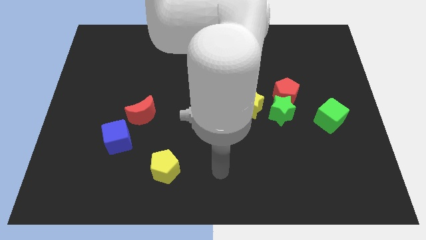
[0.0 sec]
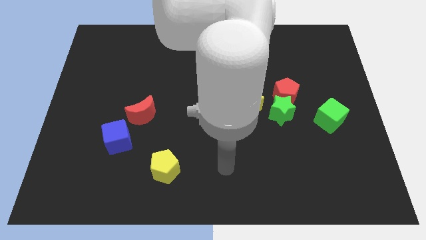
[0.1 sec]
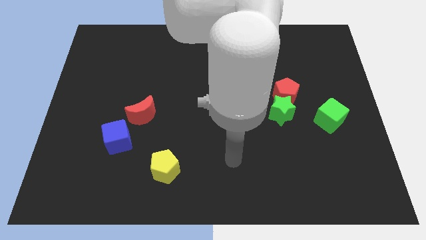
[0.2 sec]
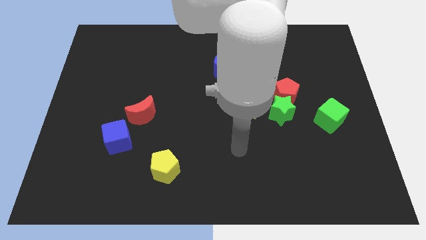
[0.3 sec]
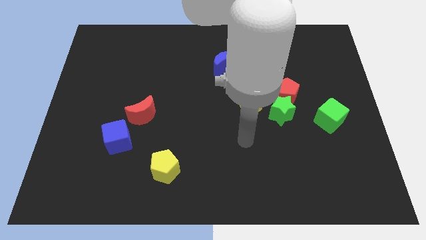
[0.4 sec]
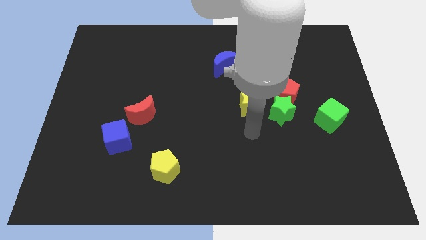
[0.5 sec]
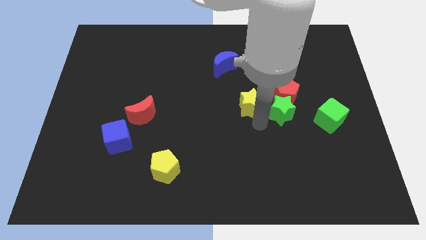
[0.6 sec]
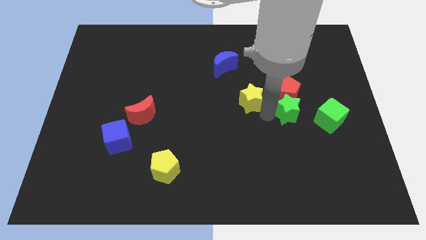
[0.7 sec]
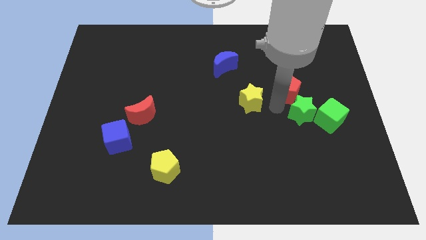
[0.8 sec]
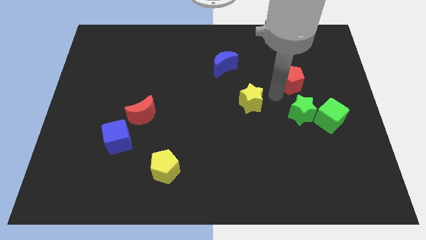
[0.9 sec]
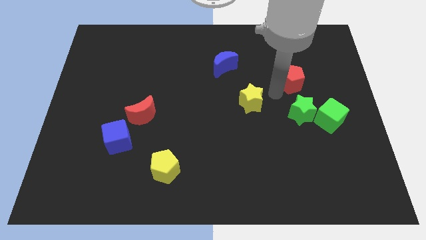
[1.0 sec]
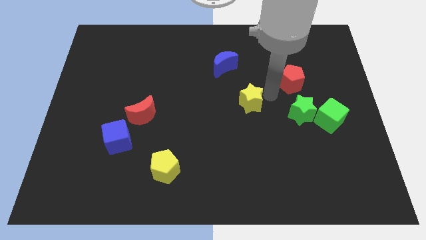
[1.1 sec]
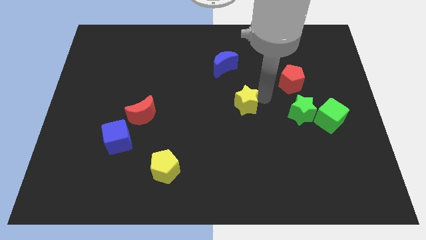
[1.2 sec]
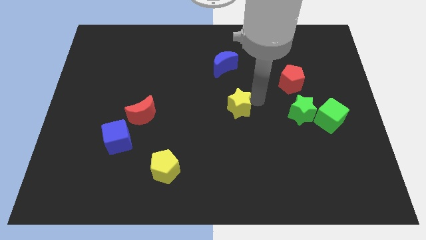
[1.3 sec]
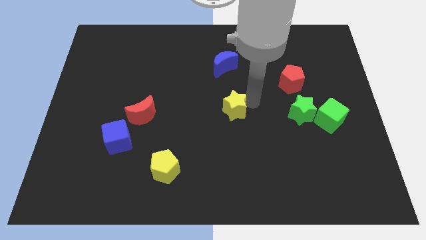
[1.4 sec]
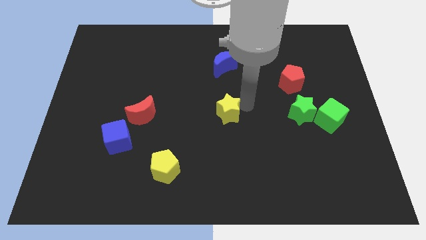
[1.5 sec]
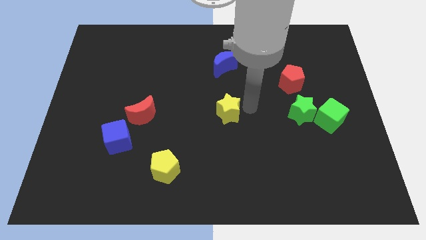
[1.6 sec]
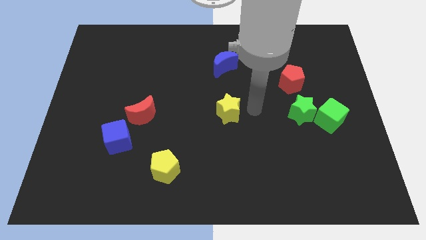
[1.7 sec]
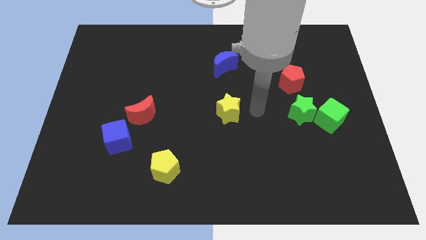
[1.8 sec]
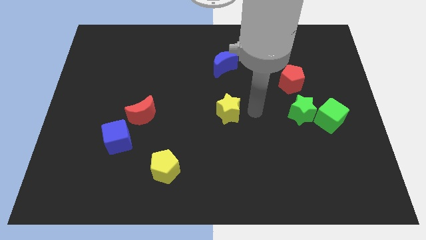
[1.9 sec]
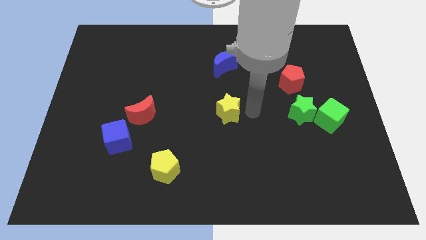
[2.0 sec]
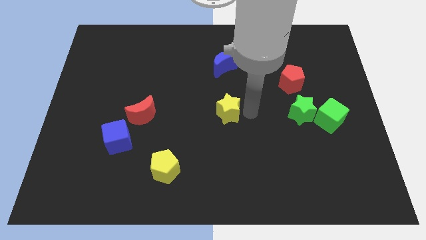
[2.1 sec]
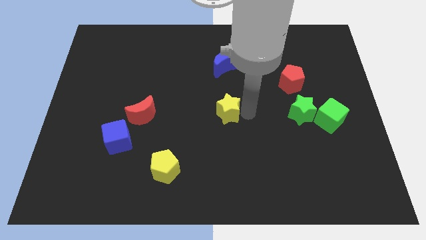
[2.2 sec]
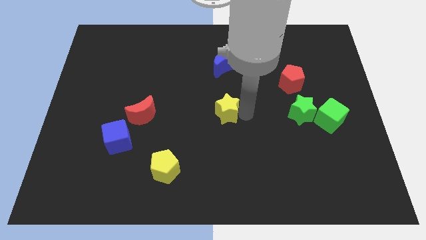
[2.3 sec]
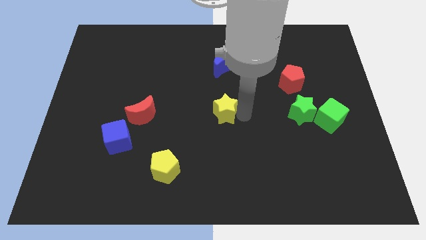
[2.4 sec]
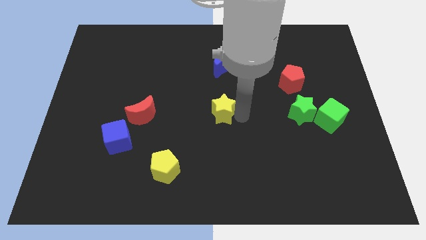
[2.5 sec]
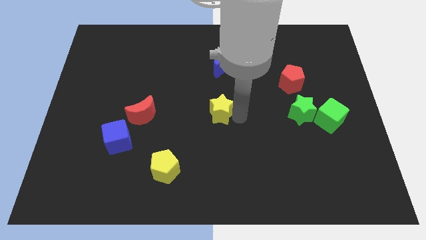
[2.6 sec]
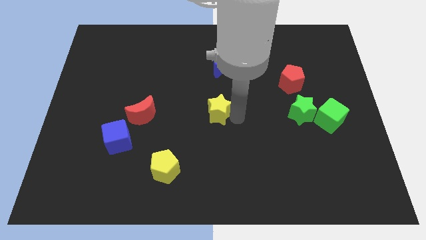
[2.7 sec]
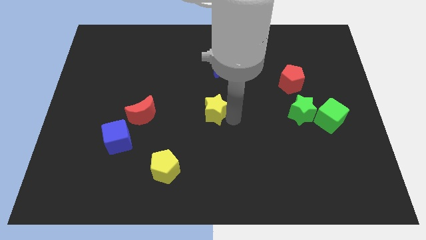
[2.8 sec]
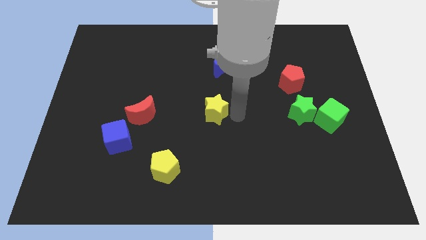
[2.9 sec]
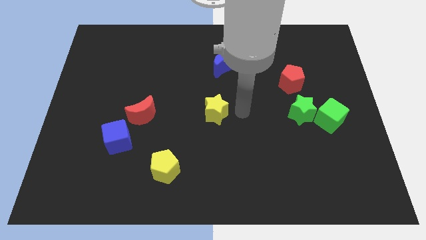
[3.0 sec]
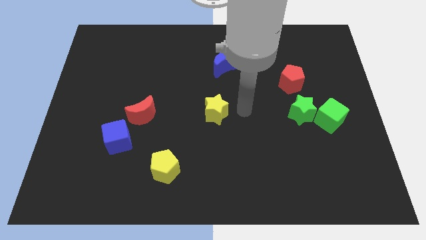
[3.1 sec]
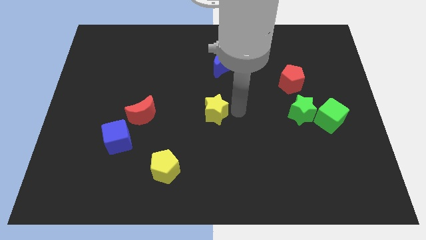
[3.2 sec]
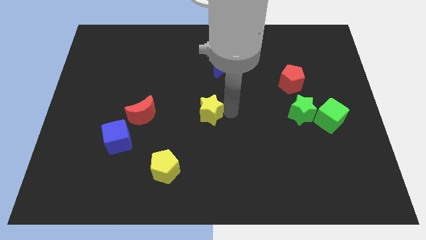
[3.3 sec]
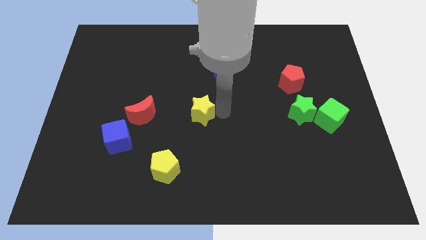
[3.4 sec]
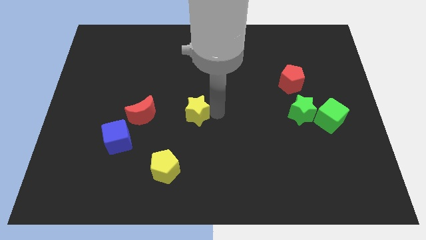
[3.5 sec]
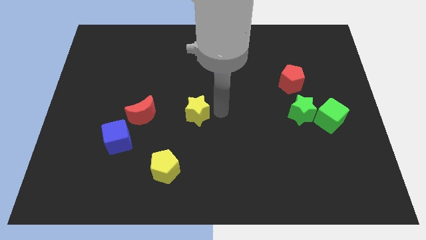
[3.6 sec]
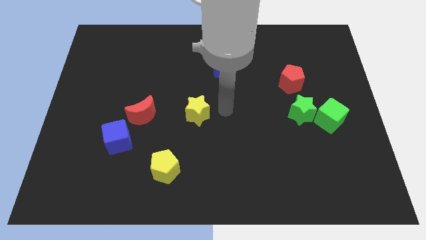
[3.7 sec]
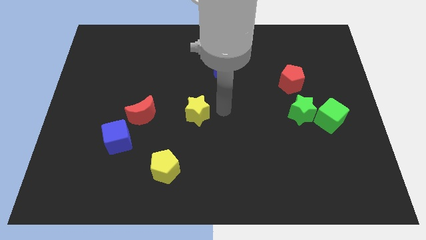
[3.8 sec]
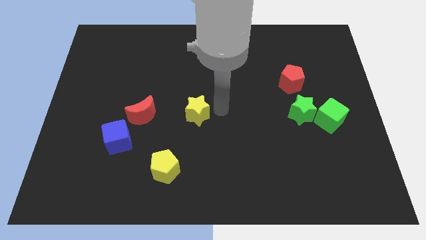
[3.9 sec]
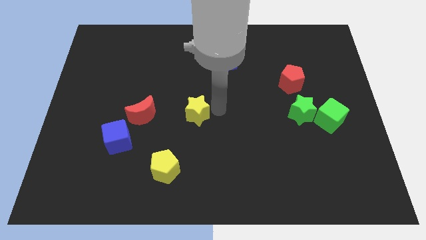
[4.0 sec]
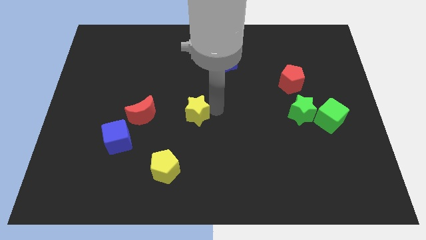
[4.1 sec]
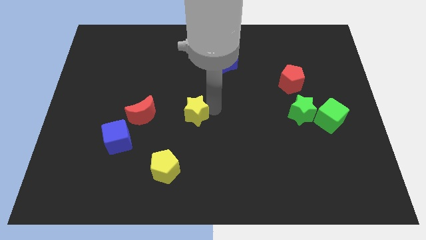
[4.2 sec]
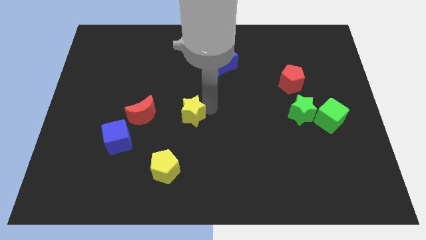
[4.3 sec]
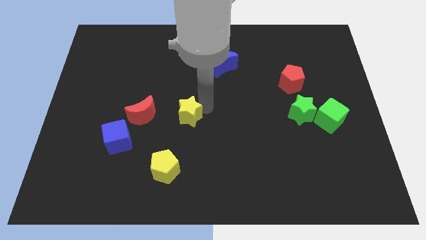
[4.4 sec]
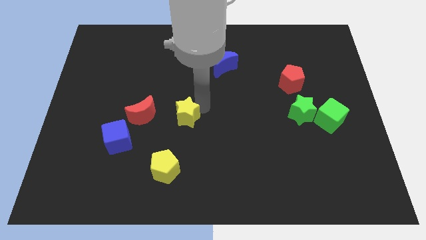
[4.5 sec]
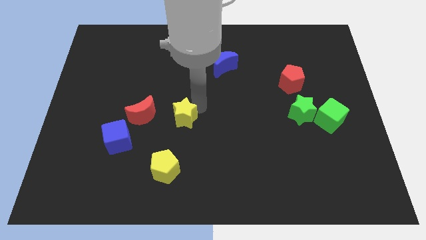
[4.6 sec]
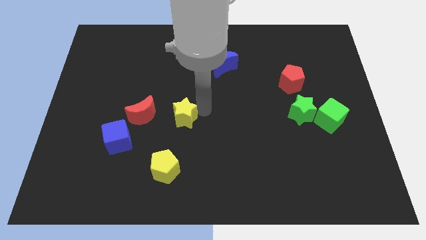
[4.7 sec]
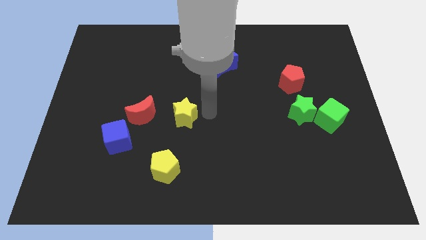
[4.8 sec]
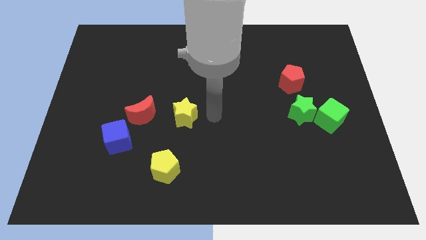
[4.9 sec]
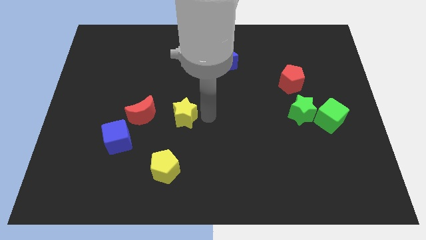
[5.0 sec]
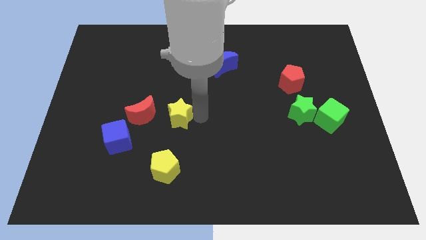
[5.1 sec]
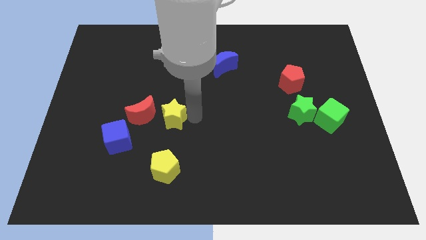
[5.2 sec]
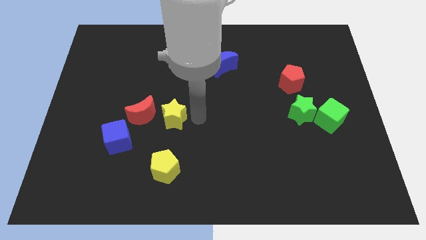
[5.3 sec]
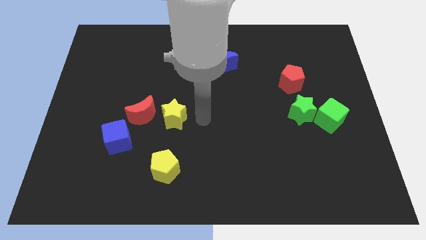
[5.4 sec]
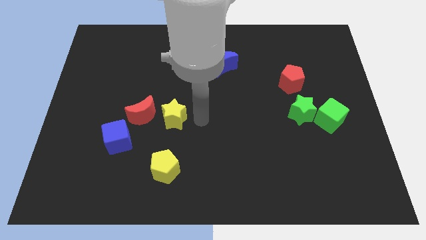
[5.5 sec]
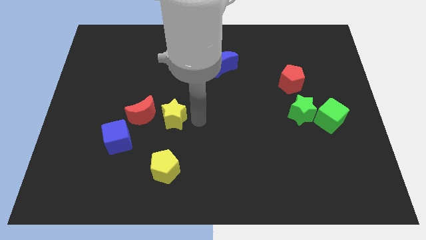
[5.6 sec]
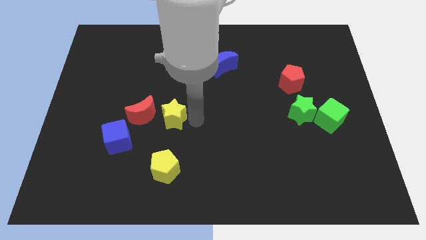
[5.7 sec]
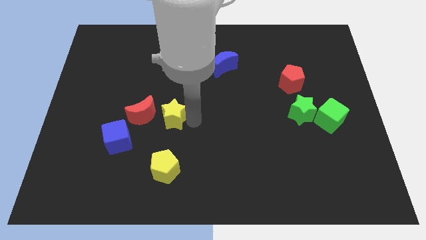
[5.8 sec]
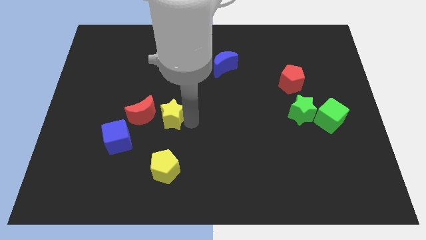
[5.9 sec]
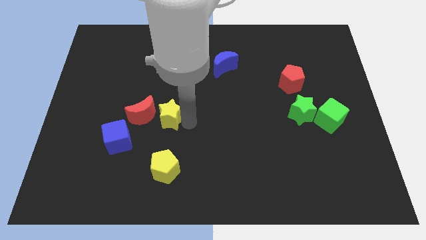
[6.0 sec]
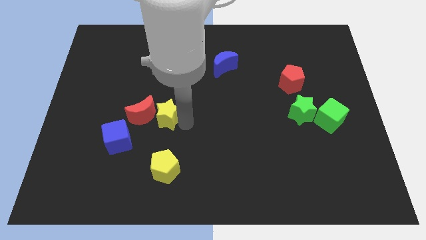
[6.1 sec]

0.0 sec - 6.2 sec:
put the yellow star towards the red moon

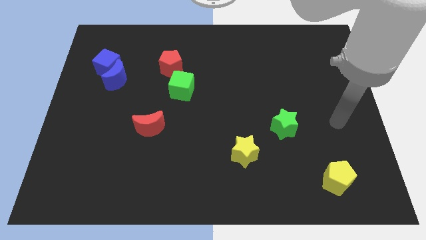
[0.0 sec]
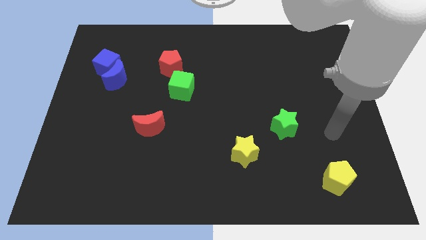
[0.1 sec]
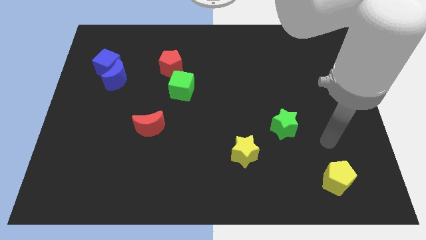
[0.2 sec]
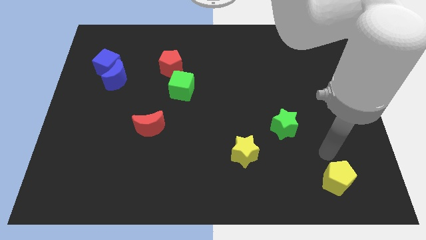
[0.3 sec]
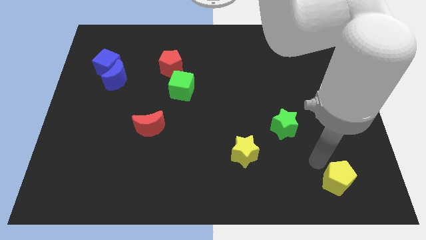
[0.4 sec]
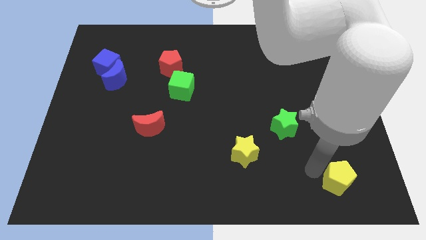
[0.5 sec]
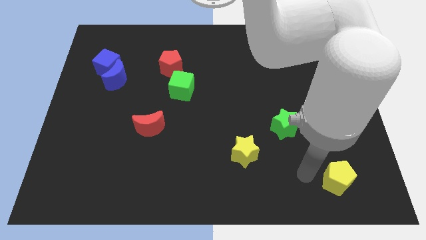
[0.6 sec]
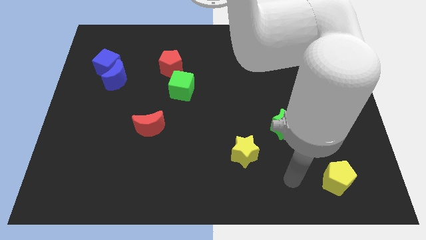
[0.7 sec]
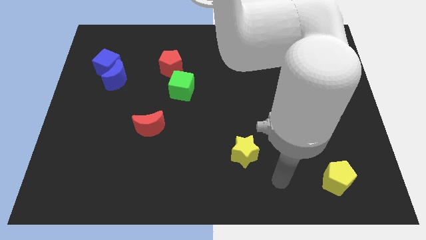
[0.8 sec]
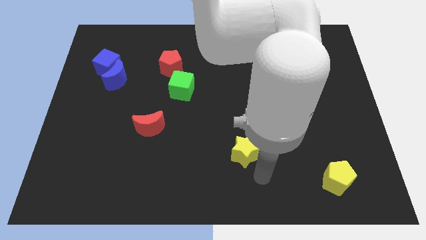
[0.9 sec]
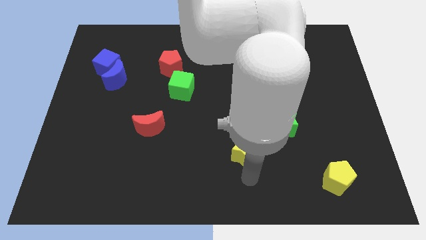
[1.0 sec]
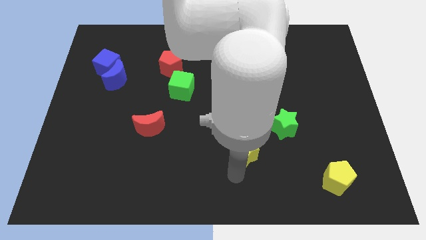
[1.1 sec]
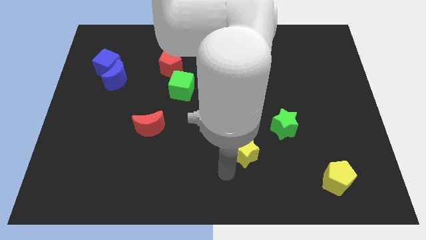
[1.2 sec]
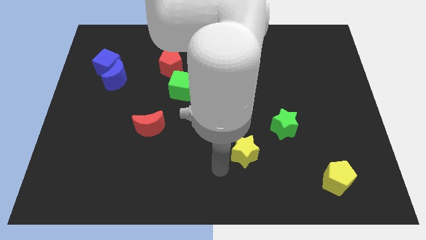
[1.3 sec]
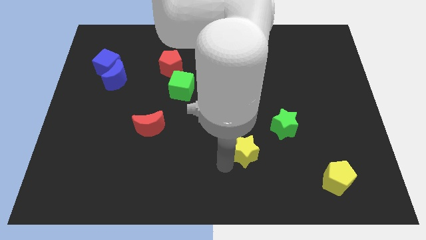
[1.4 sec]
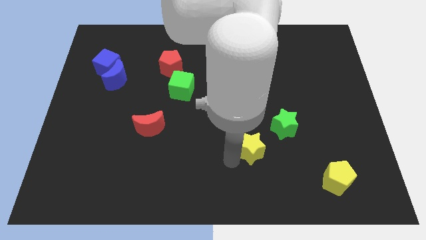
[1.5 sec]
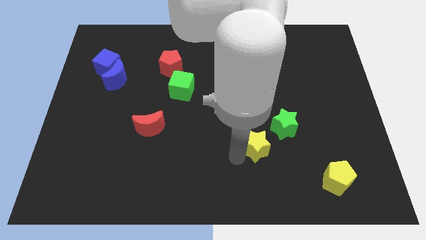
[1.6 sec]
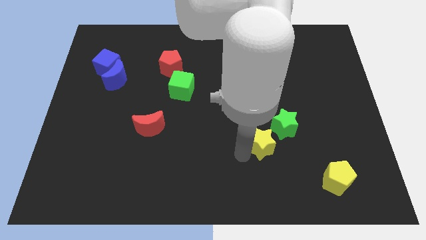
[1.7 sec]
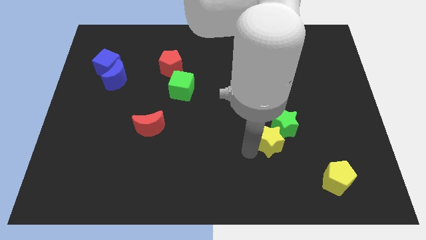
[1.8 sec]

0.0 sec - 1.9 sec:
slide the yellow star to the green star
